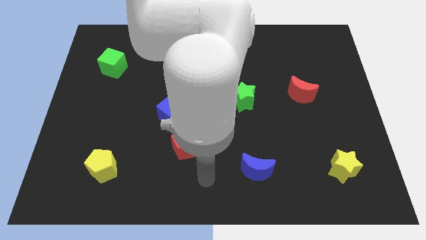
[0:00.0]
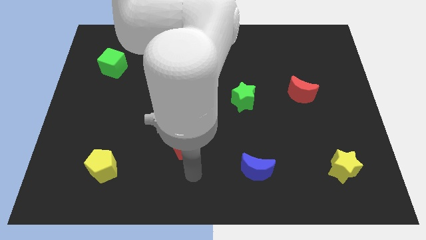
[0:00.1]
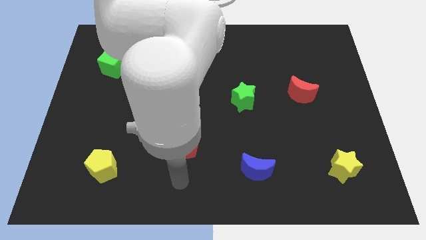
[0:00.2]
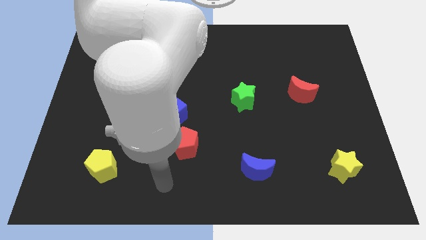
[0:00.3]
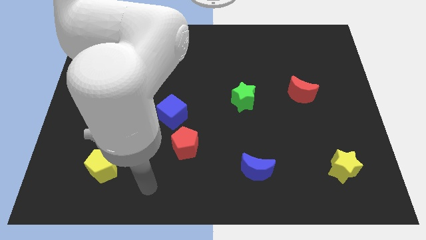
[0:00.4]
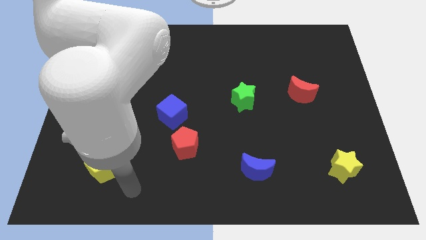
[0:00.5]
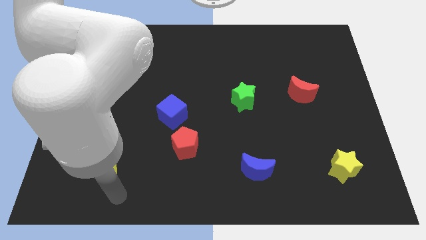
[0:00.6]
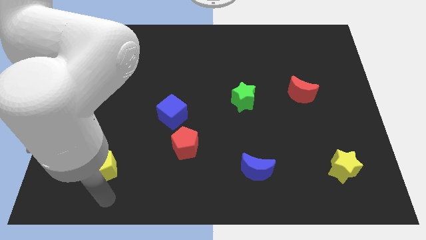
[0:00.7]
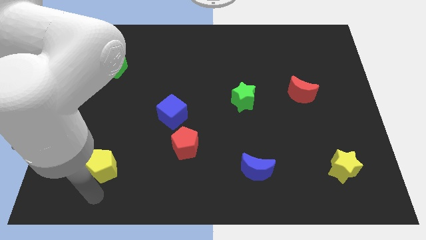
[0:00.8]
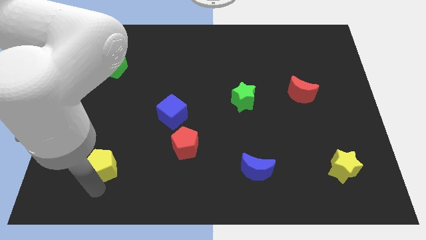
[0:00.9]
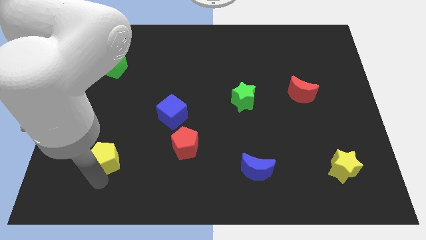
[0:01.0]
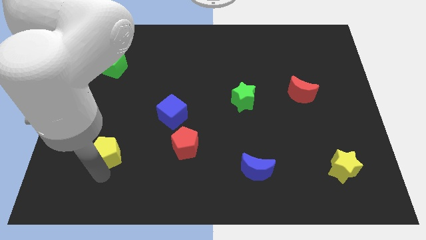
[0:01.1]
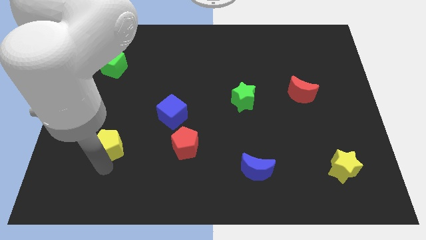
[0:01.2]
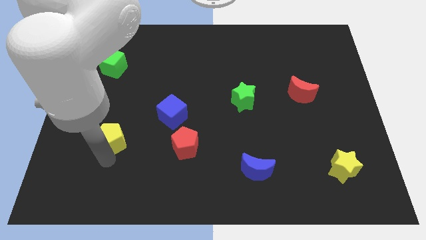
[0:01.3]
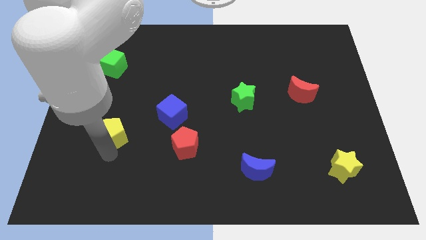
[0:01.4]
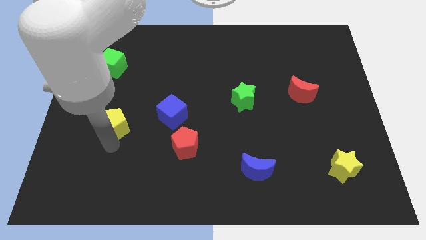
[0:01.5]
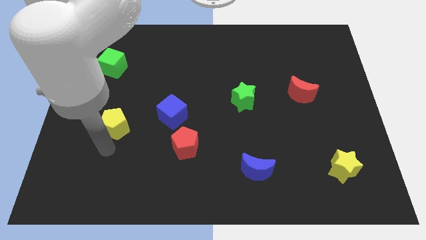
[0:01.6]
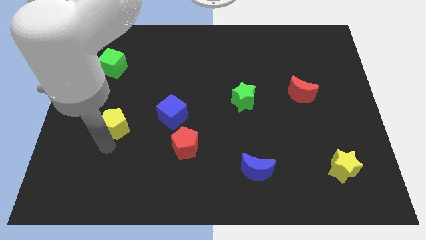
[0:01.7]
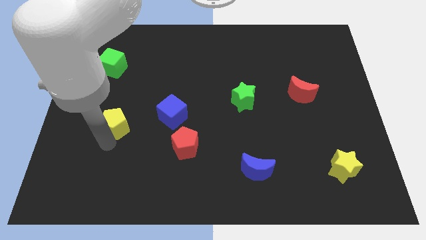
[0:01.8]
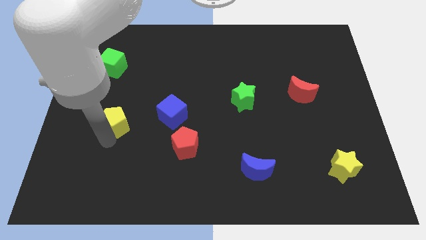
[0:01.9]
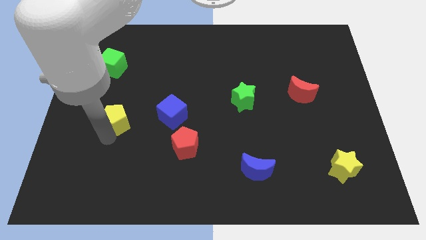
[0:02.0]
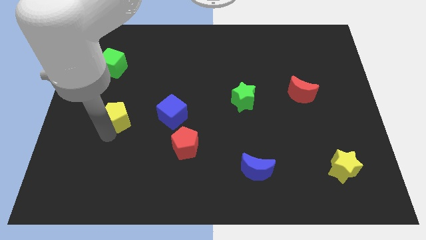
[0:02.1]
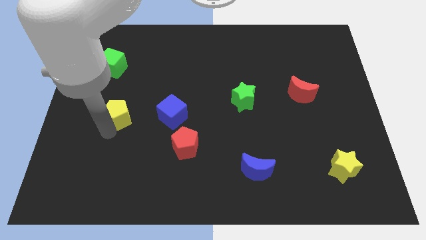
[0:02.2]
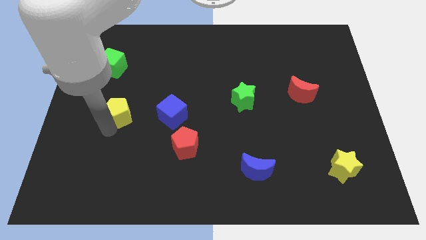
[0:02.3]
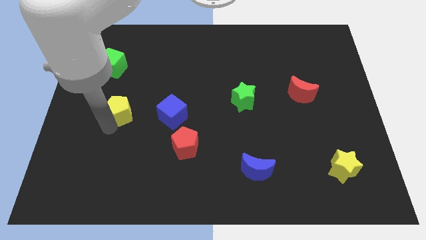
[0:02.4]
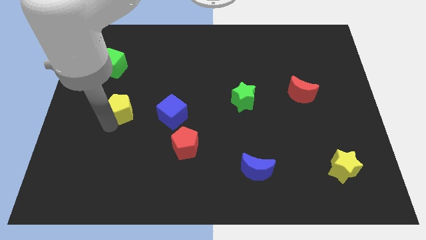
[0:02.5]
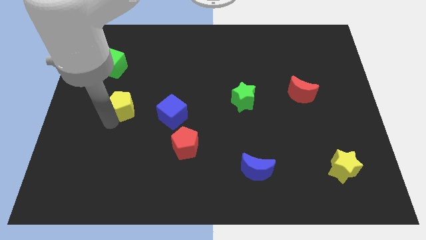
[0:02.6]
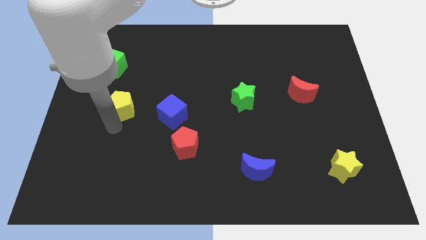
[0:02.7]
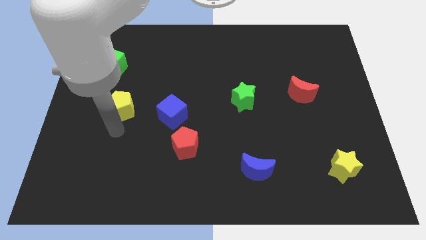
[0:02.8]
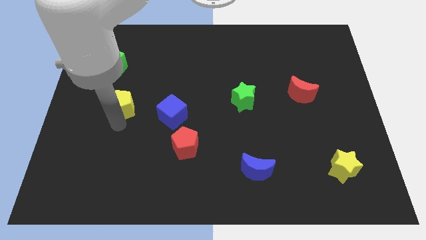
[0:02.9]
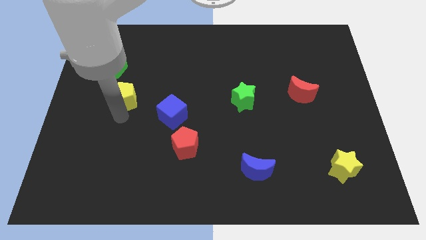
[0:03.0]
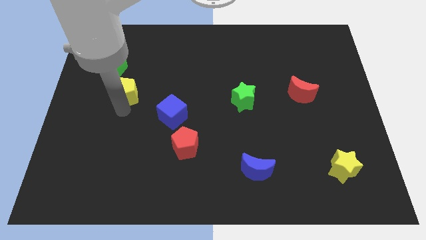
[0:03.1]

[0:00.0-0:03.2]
move the yellow pentagon up

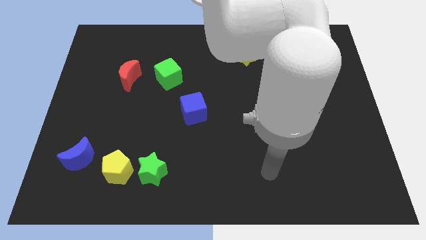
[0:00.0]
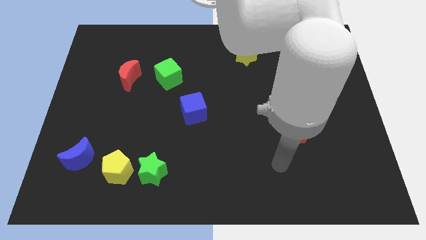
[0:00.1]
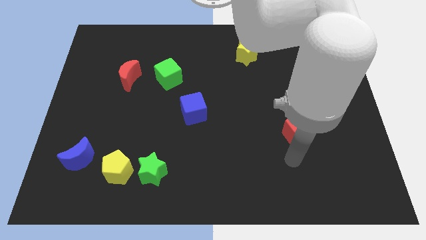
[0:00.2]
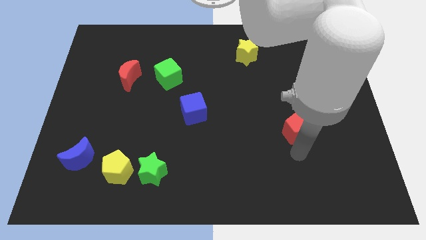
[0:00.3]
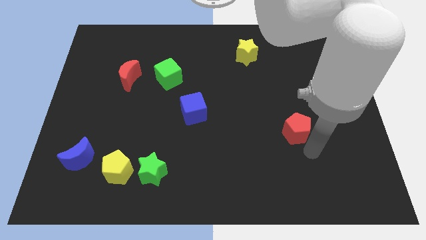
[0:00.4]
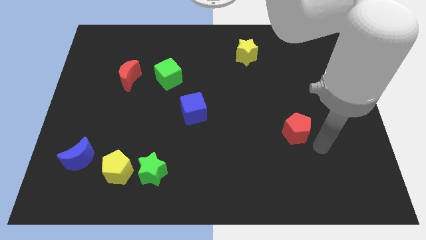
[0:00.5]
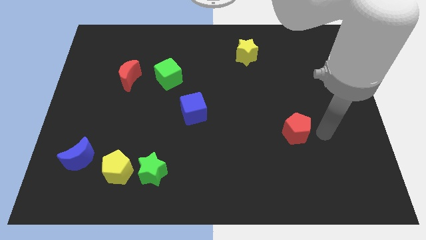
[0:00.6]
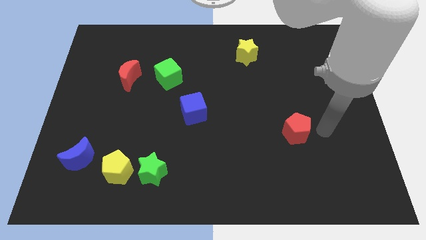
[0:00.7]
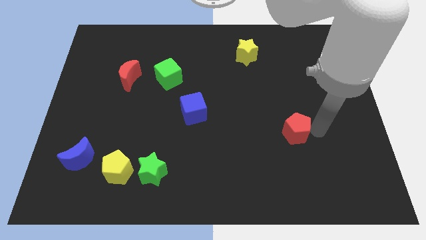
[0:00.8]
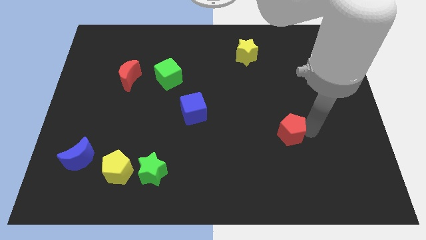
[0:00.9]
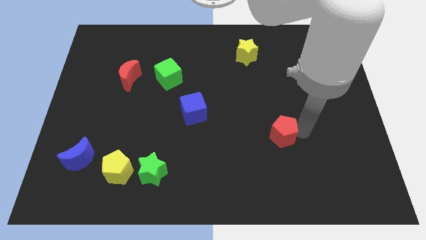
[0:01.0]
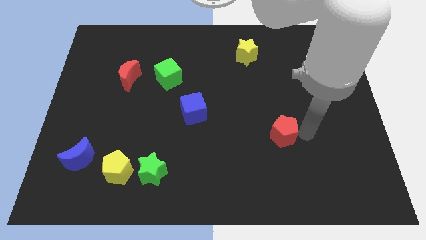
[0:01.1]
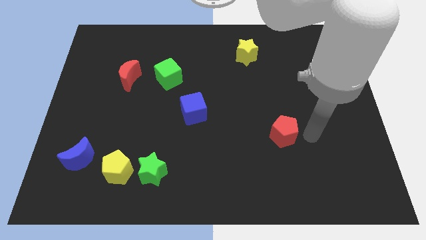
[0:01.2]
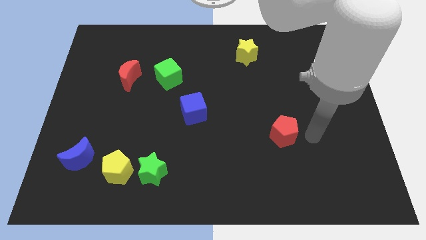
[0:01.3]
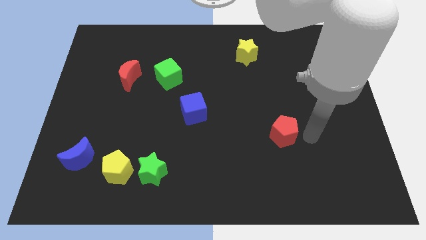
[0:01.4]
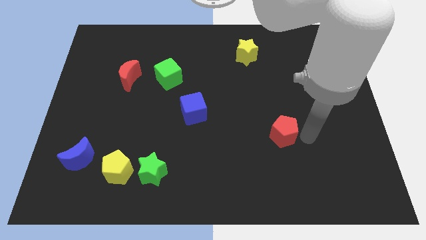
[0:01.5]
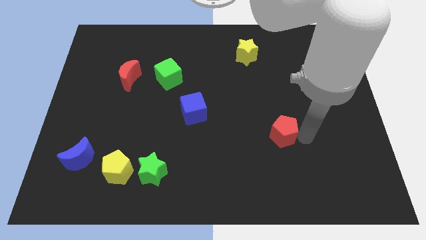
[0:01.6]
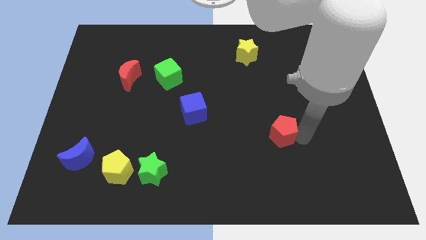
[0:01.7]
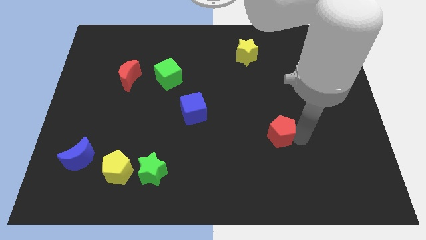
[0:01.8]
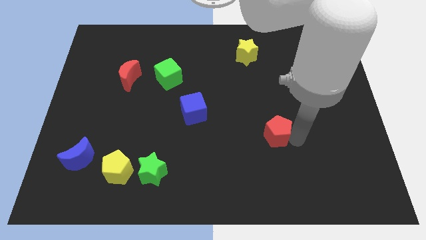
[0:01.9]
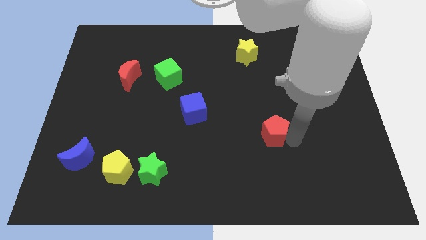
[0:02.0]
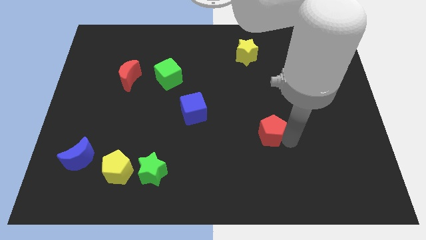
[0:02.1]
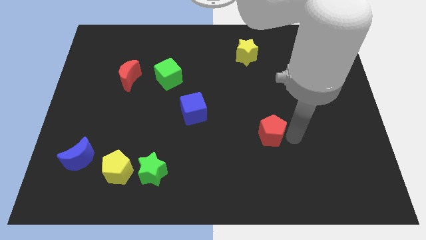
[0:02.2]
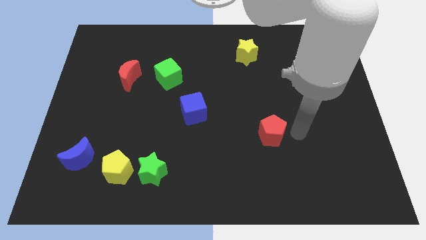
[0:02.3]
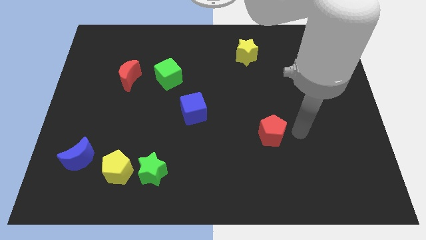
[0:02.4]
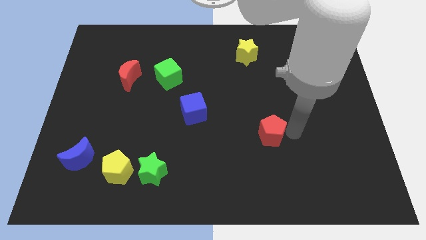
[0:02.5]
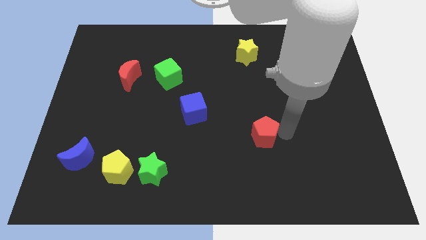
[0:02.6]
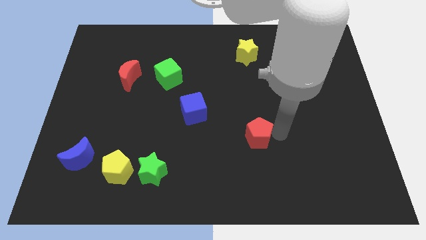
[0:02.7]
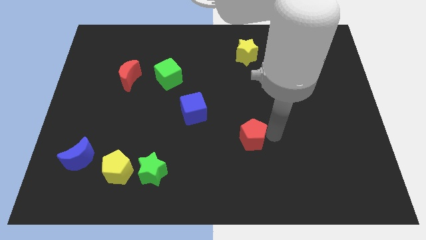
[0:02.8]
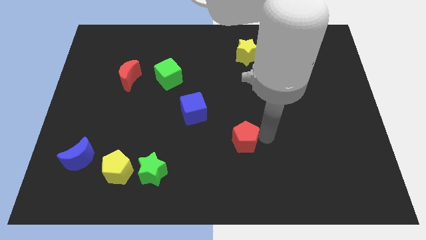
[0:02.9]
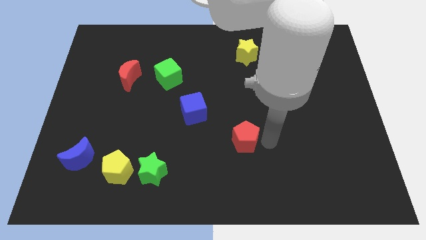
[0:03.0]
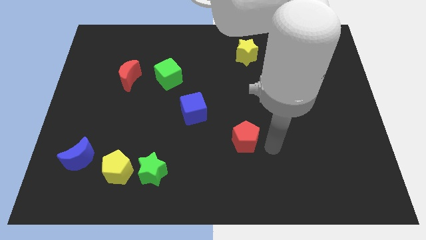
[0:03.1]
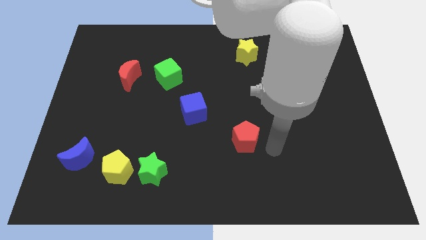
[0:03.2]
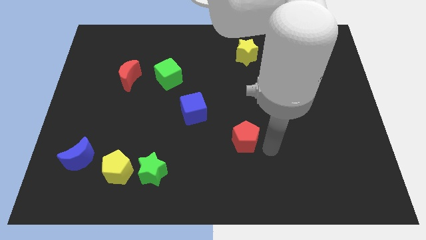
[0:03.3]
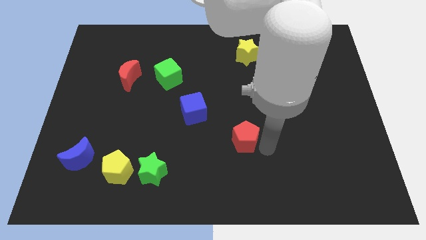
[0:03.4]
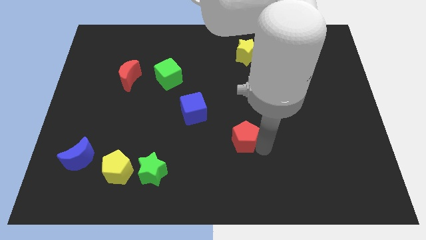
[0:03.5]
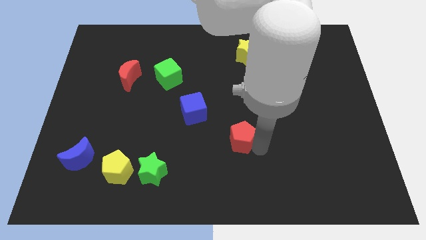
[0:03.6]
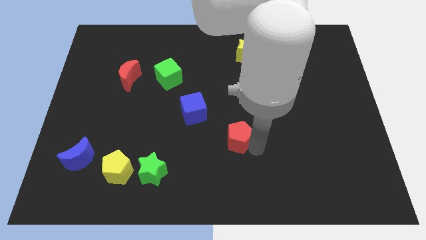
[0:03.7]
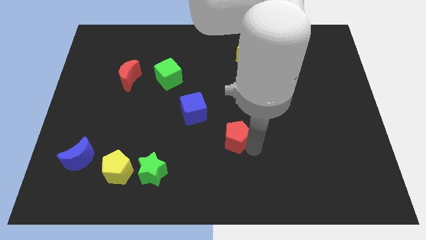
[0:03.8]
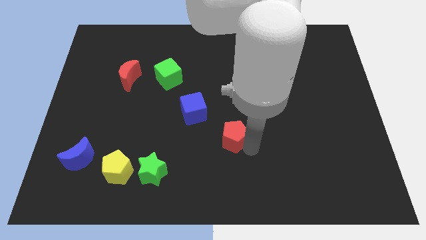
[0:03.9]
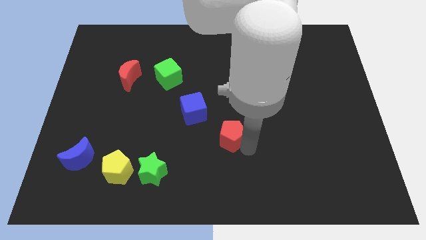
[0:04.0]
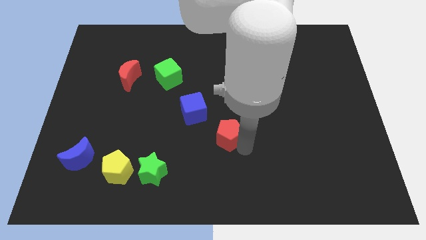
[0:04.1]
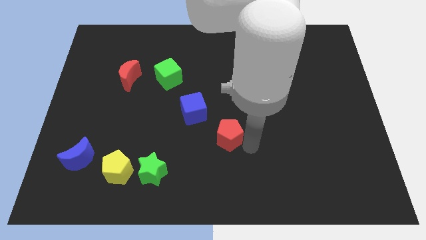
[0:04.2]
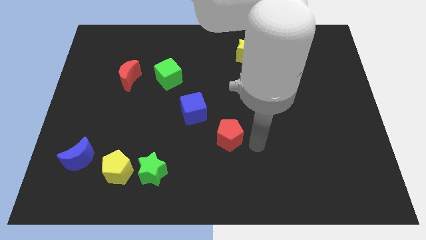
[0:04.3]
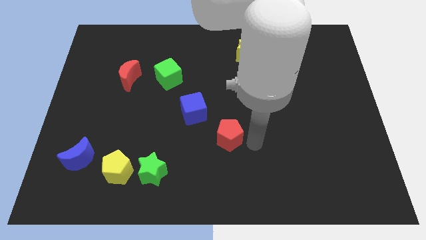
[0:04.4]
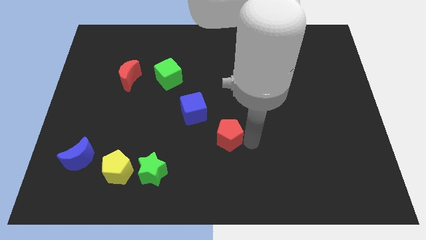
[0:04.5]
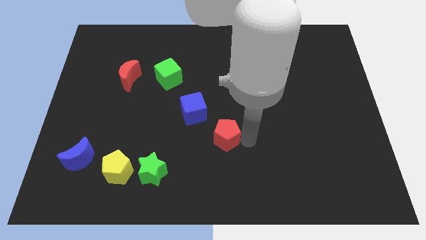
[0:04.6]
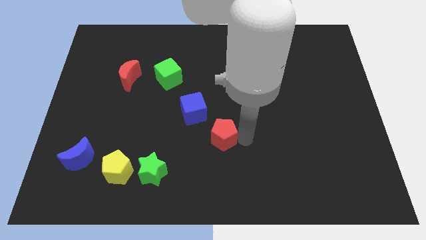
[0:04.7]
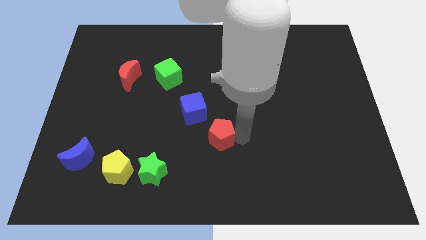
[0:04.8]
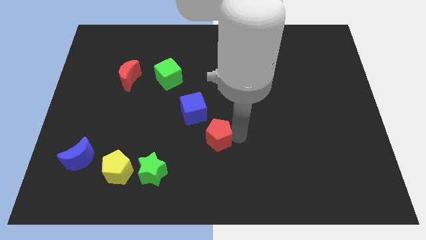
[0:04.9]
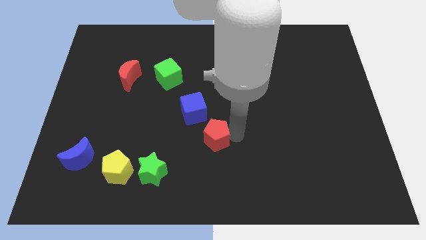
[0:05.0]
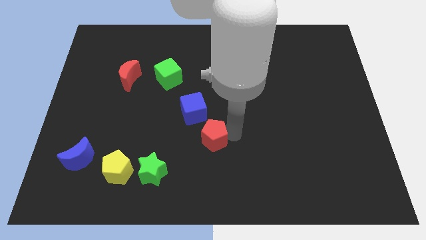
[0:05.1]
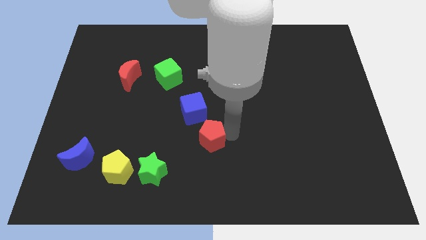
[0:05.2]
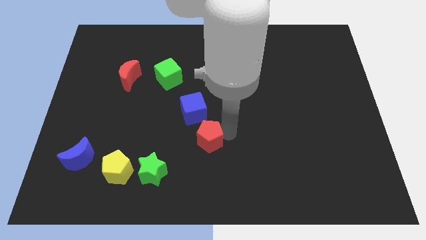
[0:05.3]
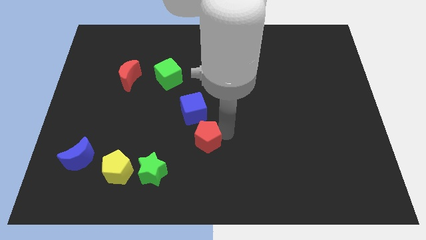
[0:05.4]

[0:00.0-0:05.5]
slide the red pentagon left
